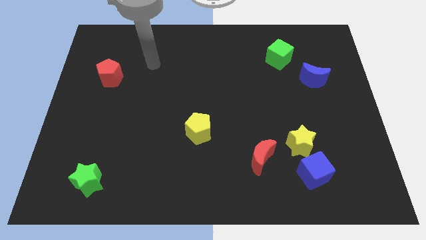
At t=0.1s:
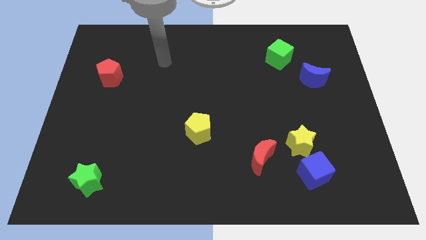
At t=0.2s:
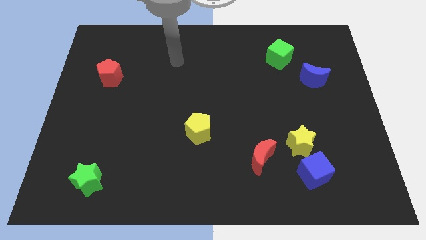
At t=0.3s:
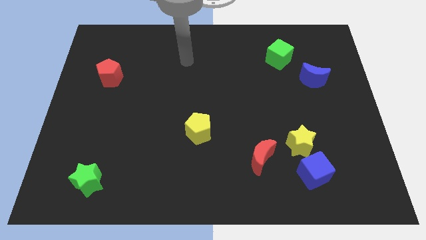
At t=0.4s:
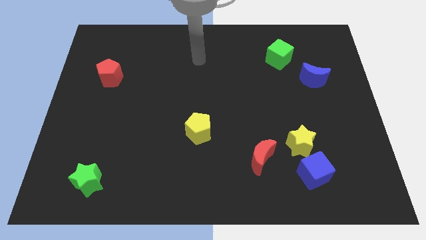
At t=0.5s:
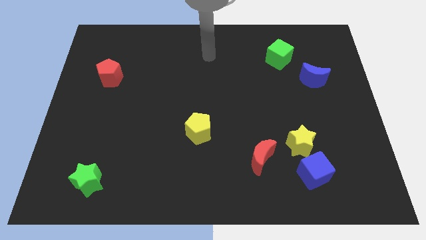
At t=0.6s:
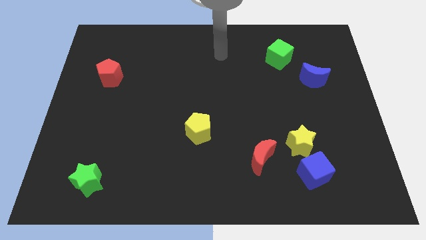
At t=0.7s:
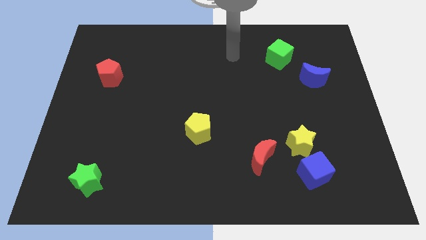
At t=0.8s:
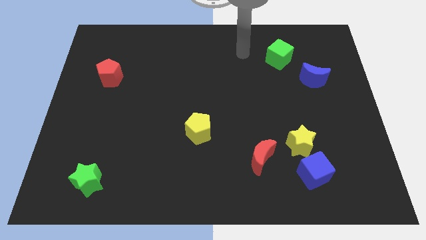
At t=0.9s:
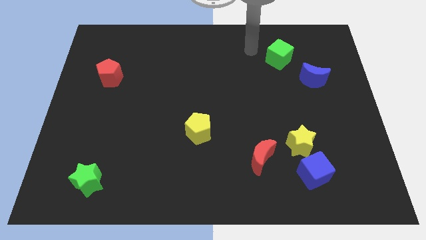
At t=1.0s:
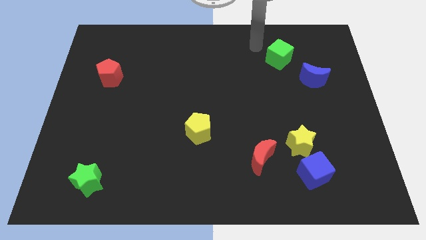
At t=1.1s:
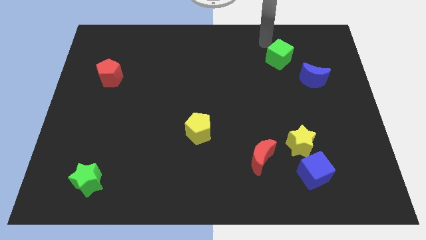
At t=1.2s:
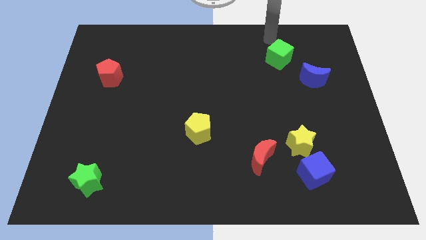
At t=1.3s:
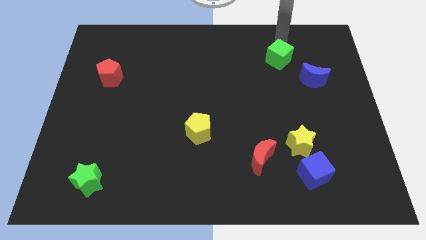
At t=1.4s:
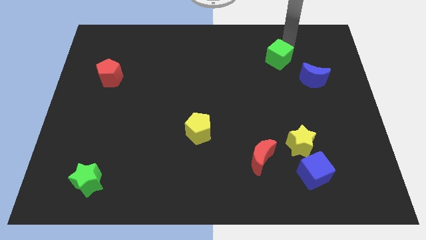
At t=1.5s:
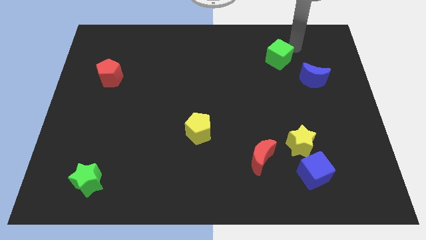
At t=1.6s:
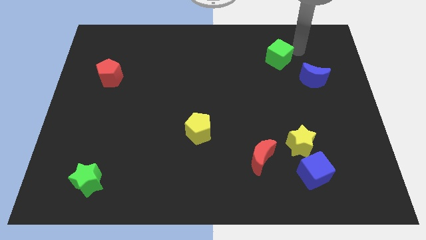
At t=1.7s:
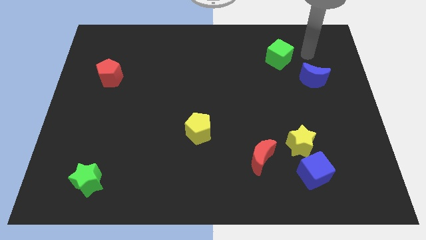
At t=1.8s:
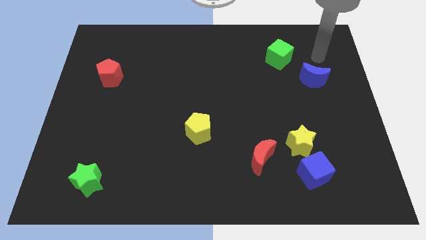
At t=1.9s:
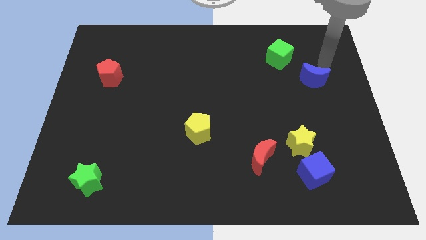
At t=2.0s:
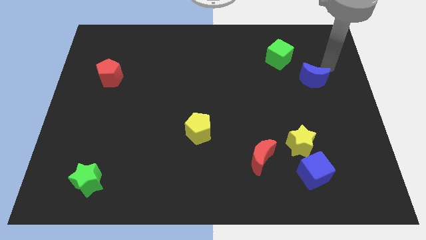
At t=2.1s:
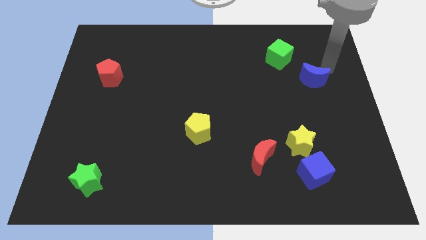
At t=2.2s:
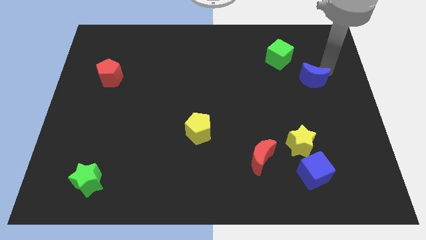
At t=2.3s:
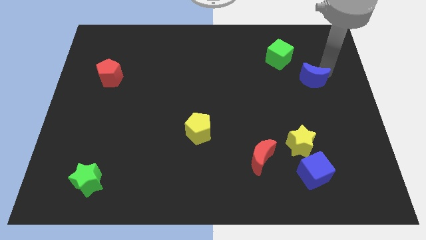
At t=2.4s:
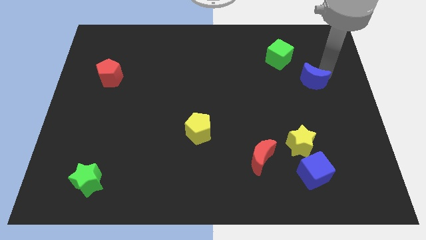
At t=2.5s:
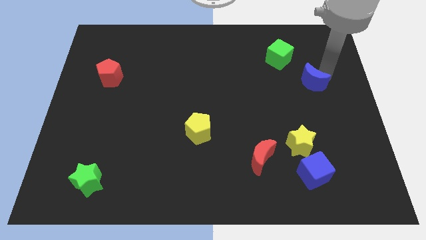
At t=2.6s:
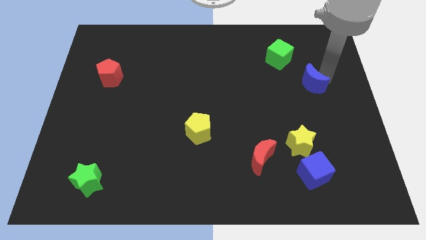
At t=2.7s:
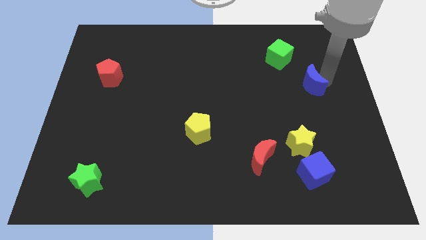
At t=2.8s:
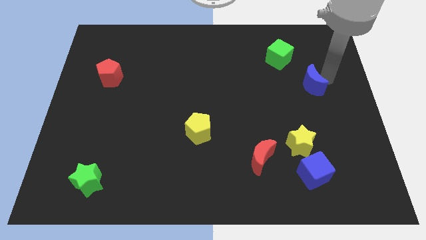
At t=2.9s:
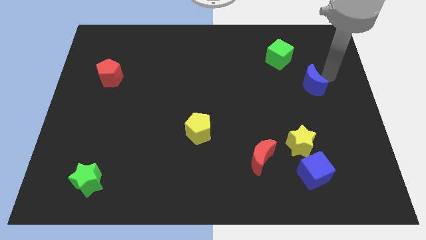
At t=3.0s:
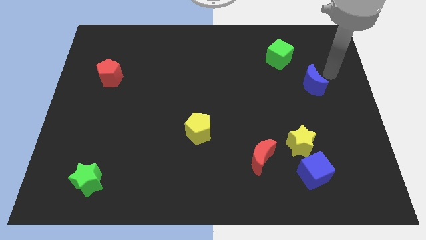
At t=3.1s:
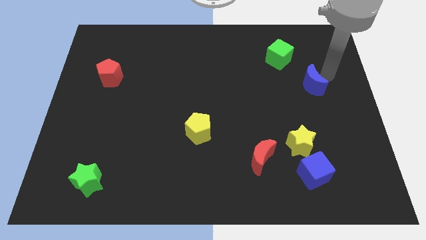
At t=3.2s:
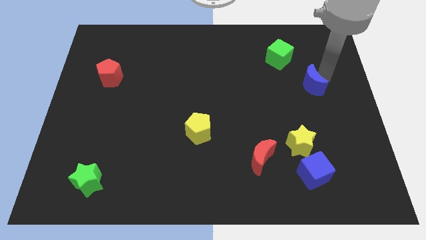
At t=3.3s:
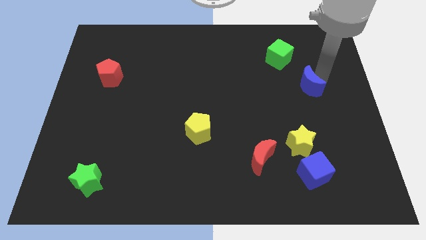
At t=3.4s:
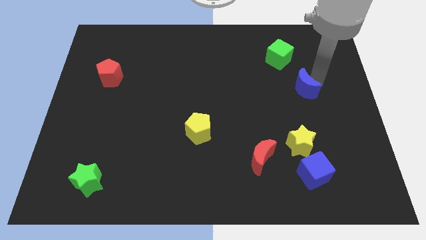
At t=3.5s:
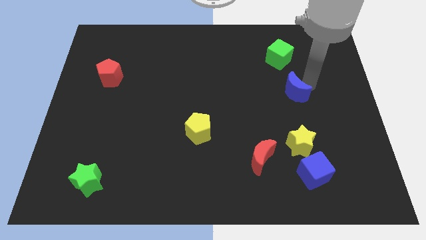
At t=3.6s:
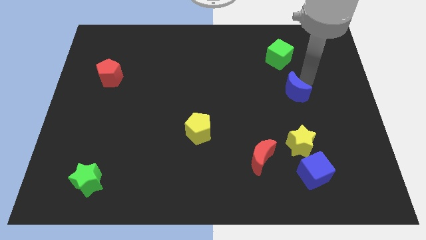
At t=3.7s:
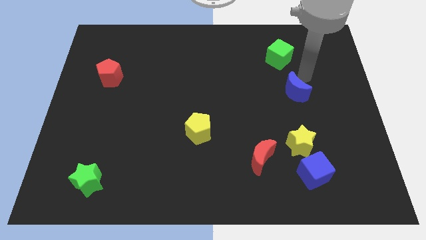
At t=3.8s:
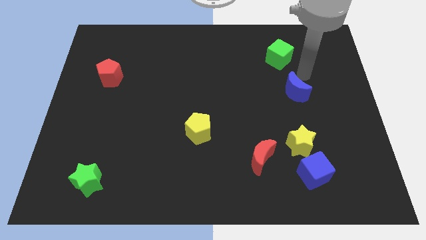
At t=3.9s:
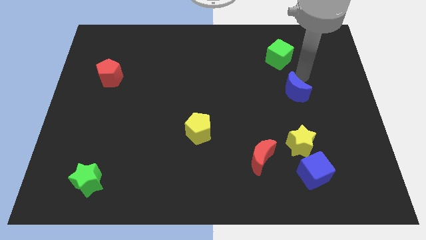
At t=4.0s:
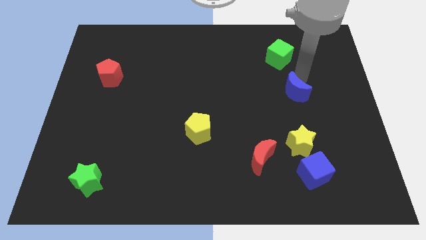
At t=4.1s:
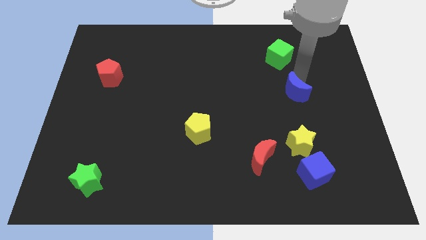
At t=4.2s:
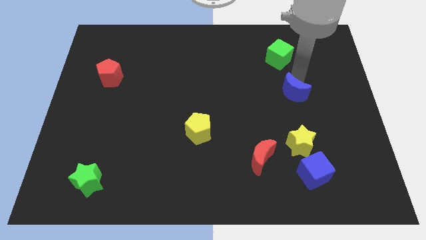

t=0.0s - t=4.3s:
slide the blue moon down and then left a little

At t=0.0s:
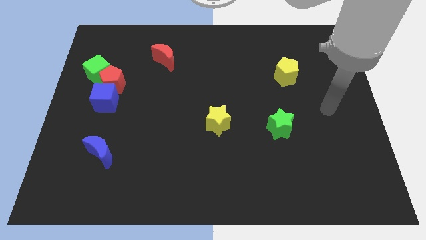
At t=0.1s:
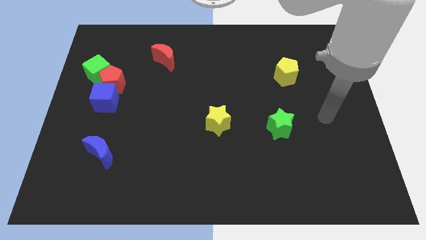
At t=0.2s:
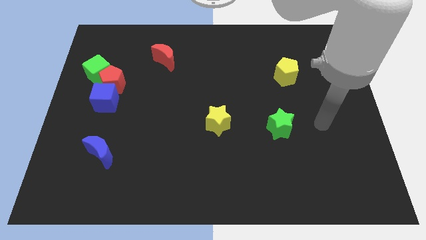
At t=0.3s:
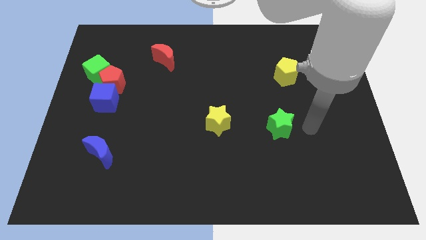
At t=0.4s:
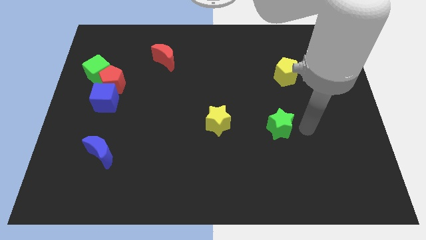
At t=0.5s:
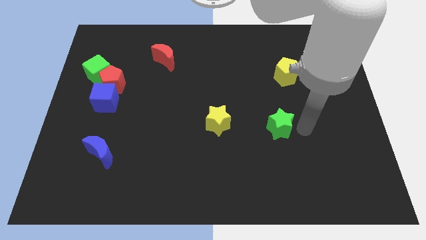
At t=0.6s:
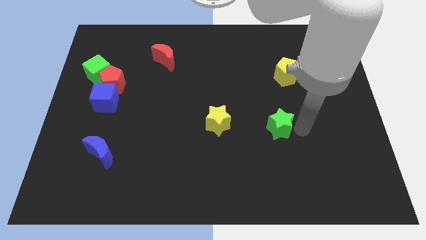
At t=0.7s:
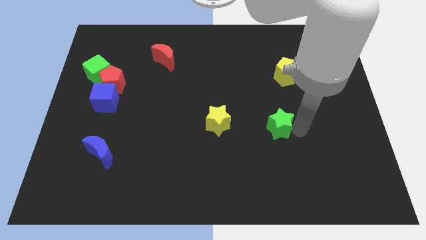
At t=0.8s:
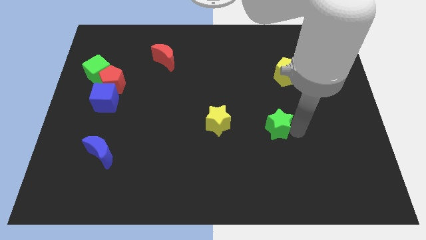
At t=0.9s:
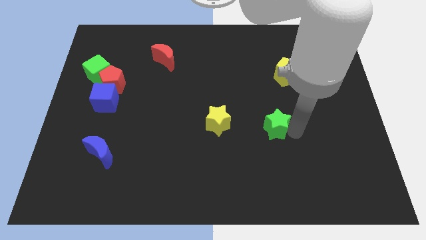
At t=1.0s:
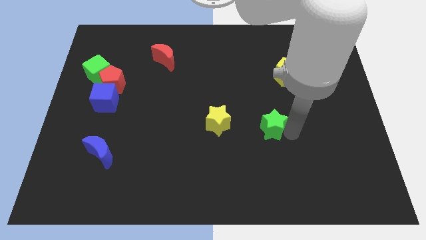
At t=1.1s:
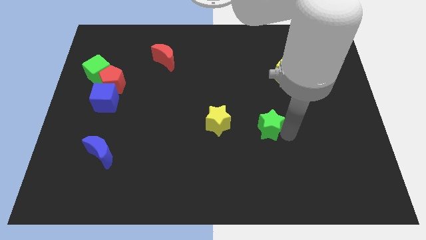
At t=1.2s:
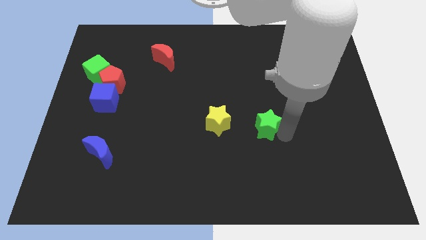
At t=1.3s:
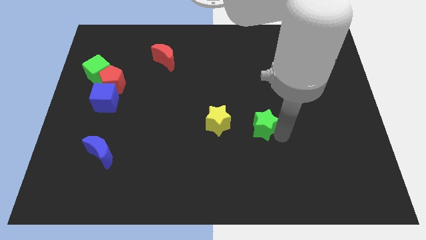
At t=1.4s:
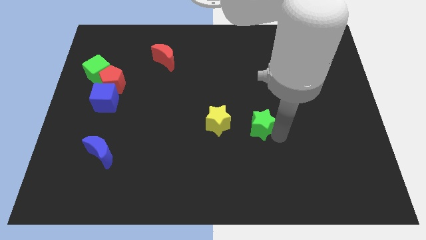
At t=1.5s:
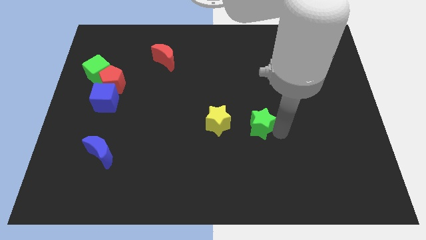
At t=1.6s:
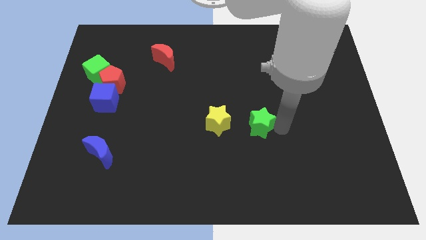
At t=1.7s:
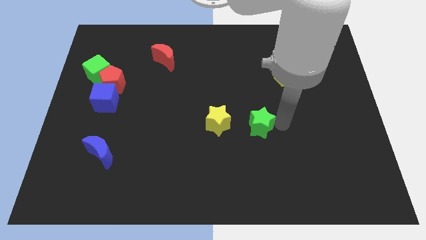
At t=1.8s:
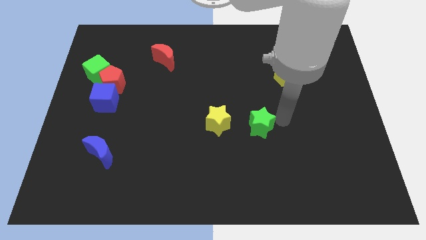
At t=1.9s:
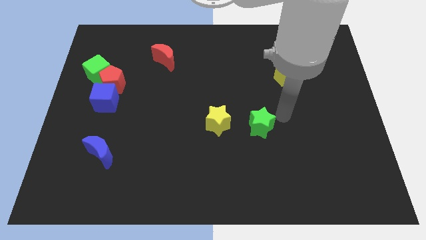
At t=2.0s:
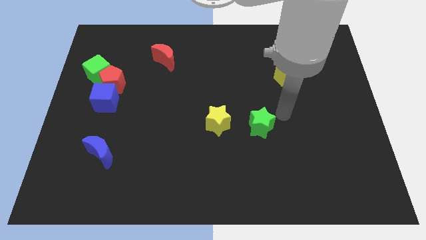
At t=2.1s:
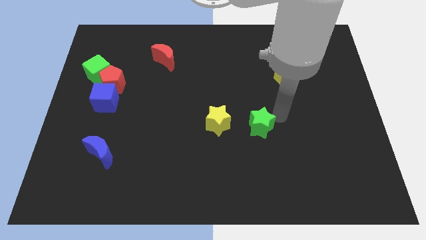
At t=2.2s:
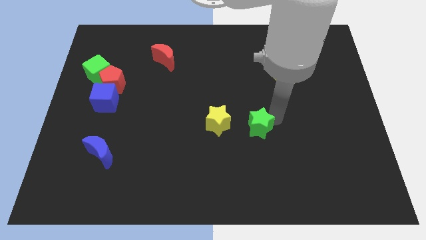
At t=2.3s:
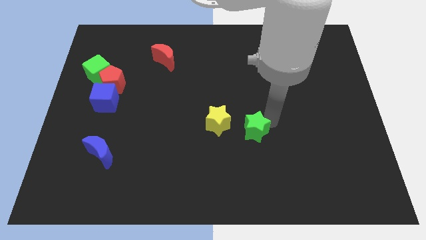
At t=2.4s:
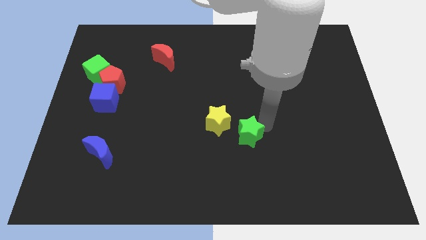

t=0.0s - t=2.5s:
slightly move the green star to the left

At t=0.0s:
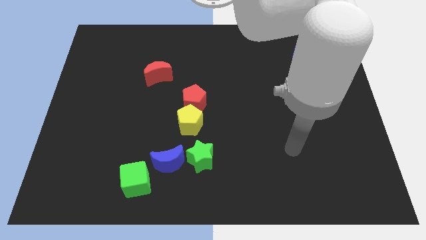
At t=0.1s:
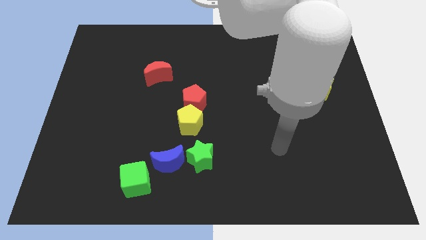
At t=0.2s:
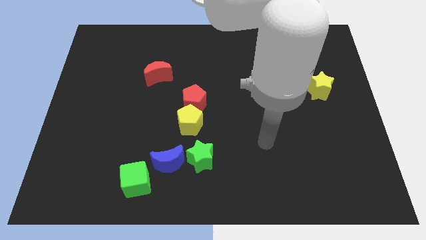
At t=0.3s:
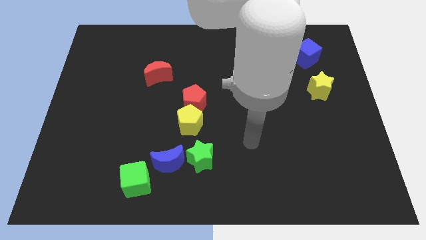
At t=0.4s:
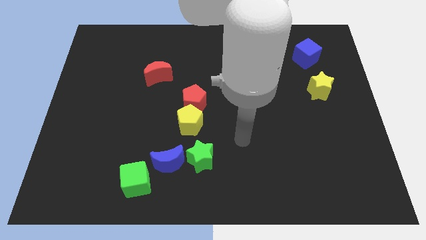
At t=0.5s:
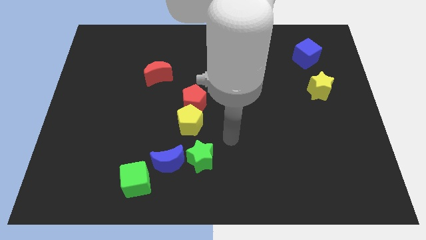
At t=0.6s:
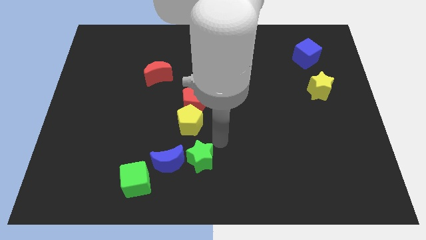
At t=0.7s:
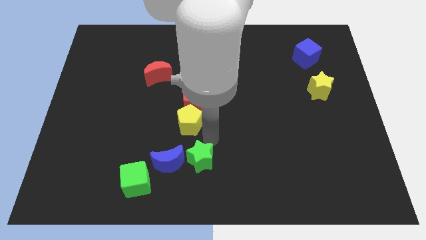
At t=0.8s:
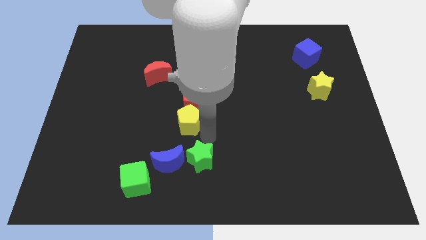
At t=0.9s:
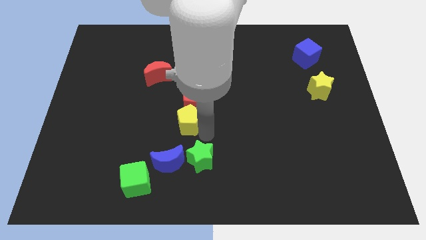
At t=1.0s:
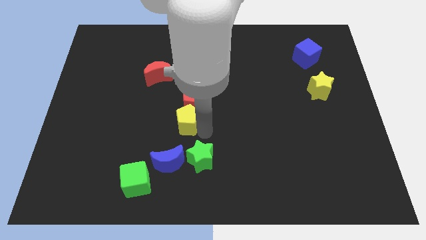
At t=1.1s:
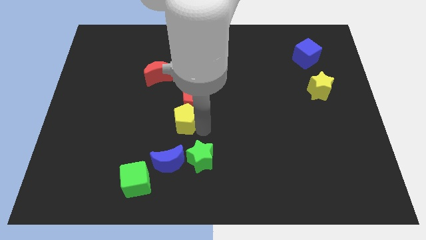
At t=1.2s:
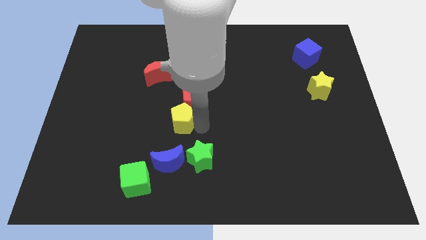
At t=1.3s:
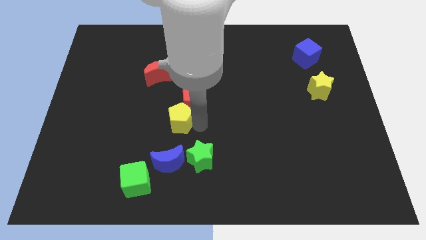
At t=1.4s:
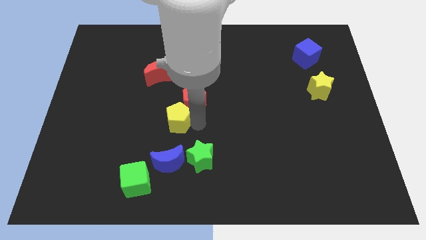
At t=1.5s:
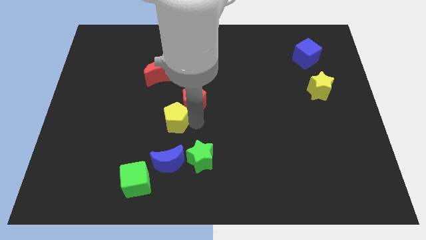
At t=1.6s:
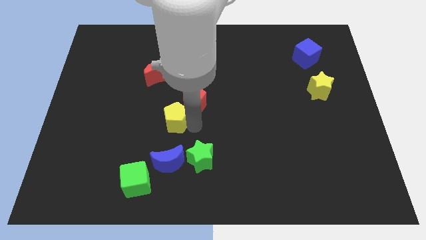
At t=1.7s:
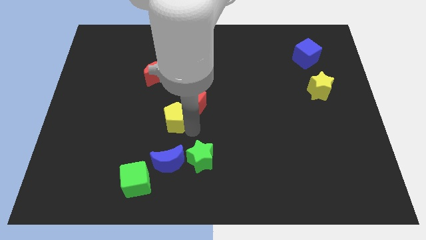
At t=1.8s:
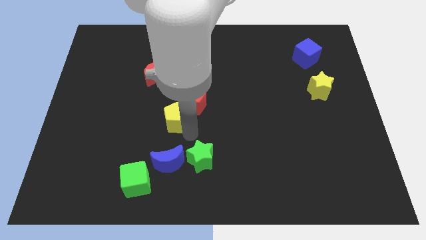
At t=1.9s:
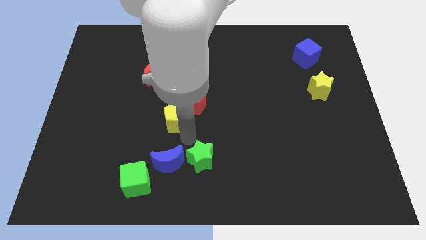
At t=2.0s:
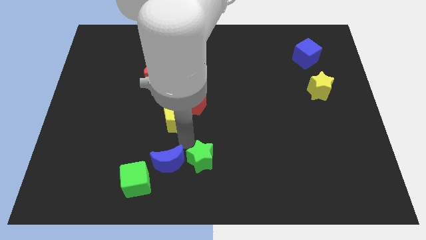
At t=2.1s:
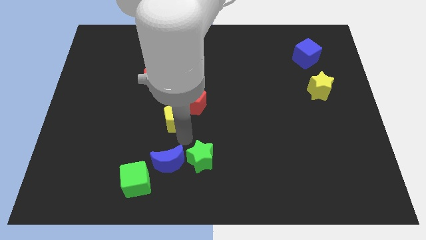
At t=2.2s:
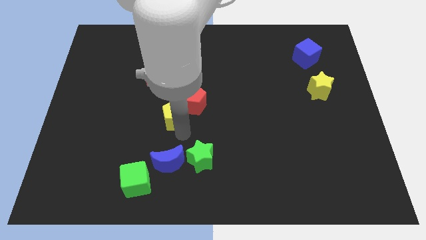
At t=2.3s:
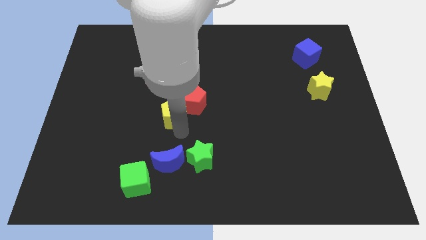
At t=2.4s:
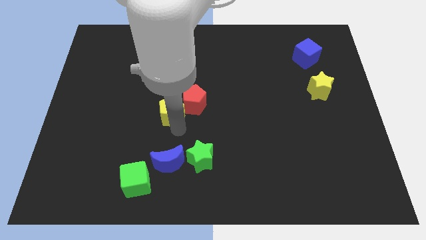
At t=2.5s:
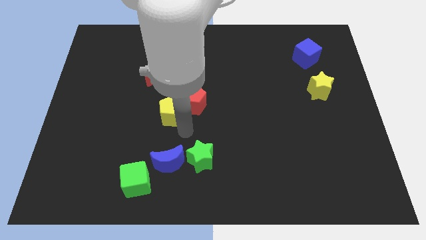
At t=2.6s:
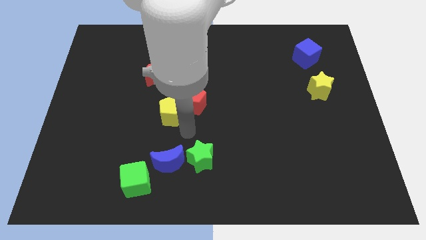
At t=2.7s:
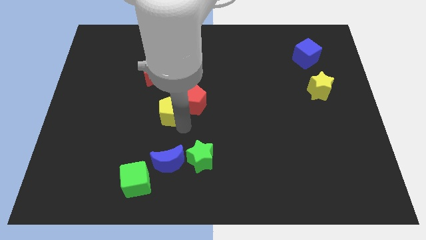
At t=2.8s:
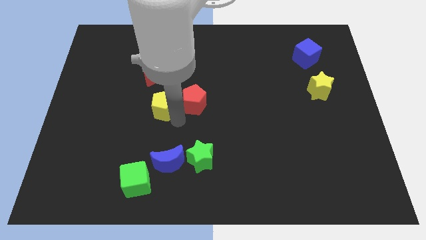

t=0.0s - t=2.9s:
push the yellow pentagon slightly diagonally upwards and to the left
